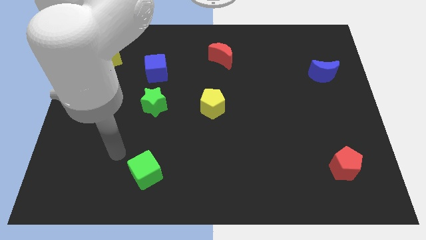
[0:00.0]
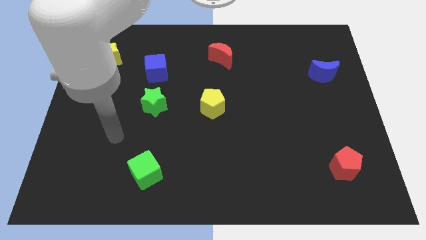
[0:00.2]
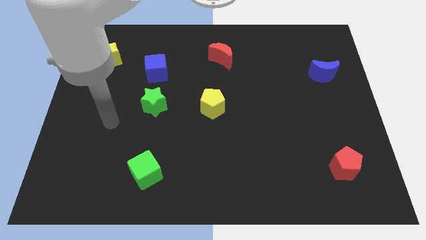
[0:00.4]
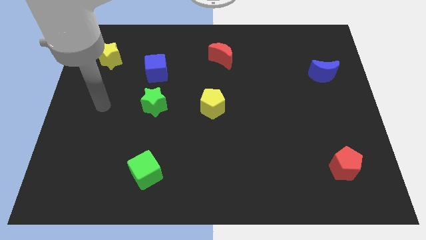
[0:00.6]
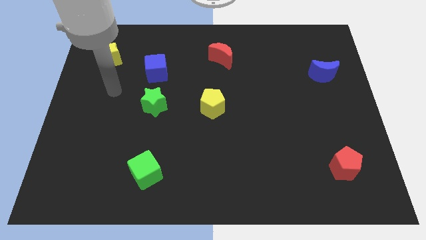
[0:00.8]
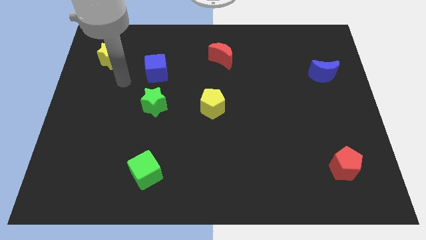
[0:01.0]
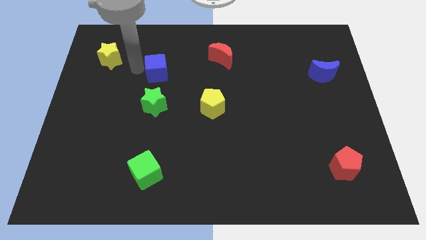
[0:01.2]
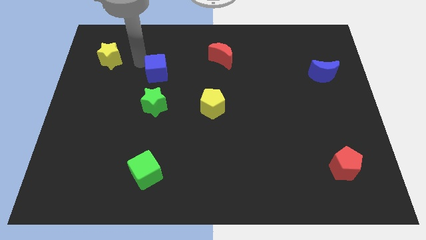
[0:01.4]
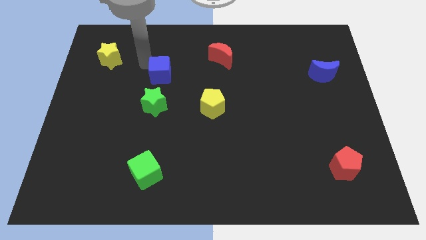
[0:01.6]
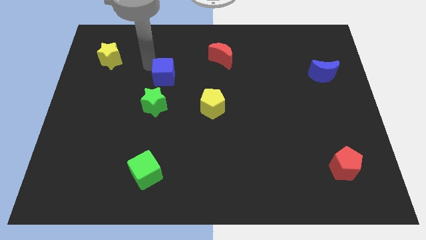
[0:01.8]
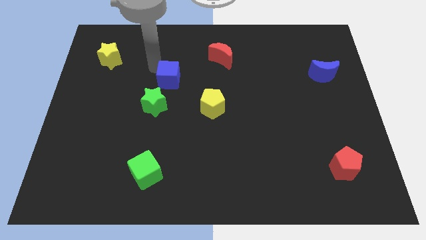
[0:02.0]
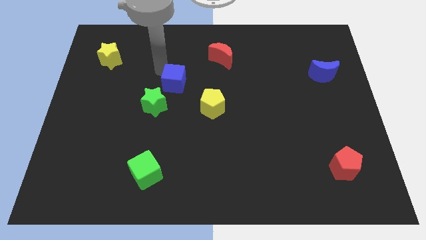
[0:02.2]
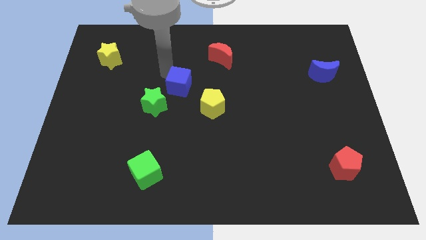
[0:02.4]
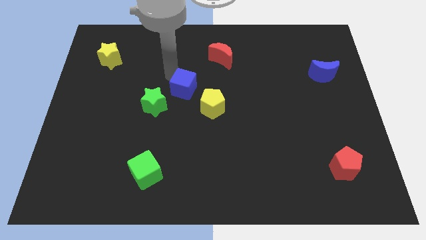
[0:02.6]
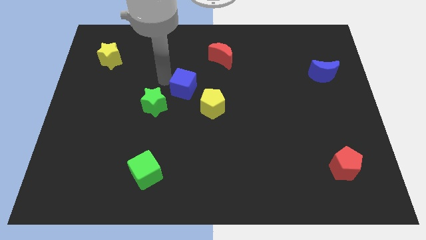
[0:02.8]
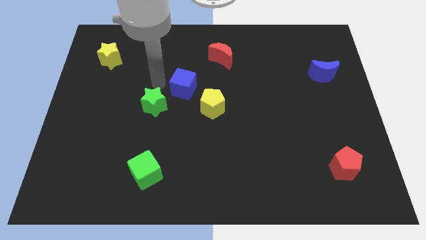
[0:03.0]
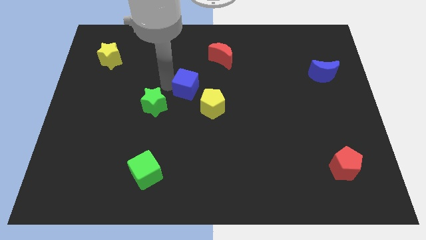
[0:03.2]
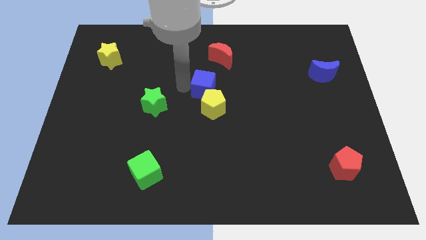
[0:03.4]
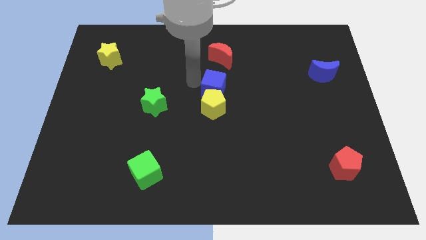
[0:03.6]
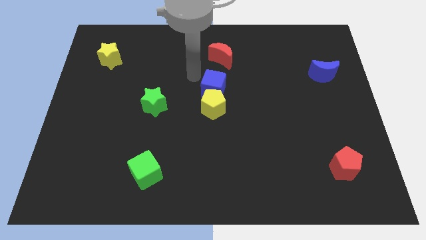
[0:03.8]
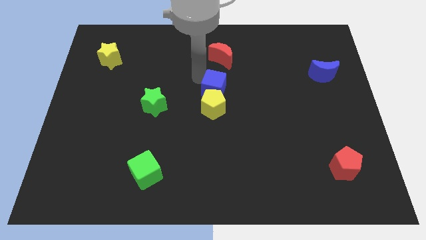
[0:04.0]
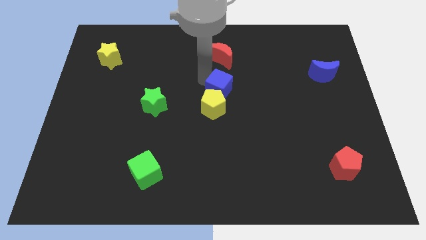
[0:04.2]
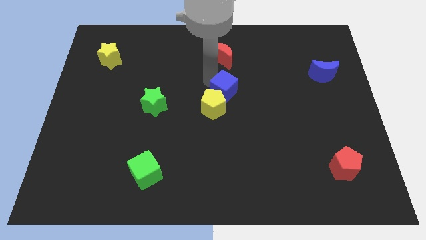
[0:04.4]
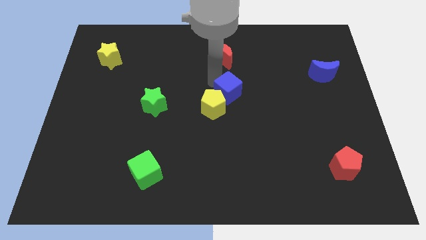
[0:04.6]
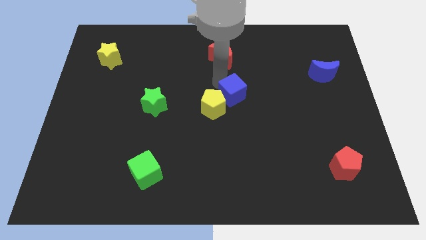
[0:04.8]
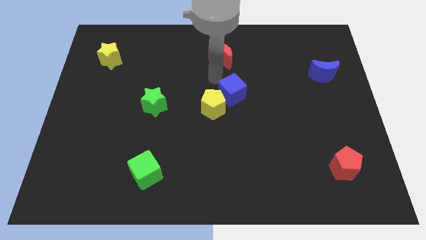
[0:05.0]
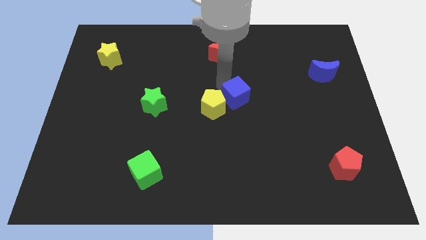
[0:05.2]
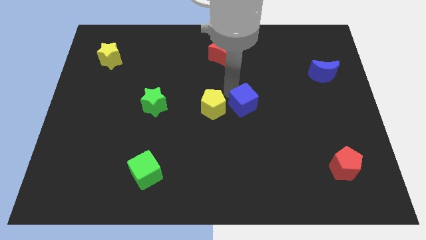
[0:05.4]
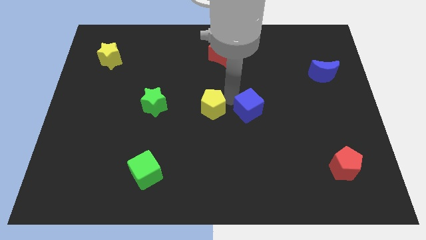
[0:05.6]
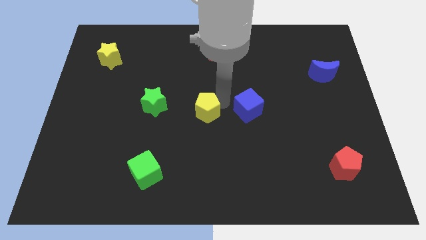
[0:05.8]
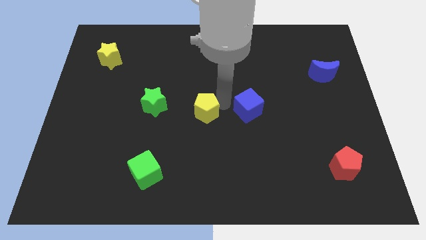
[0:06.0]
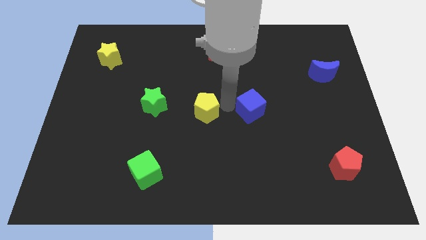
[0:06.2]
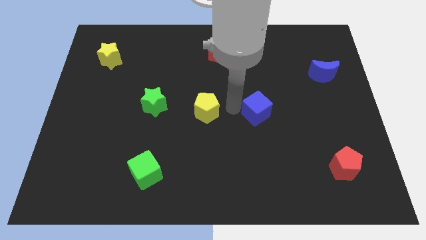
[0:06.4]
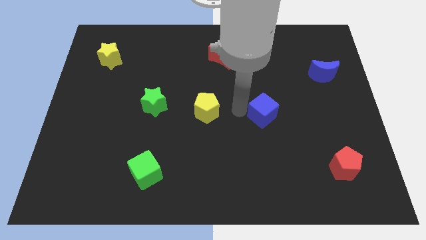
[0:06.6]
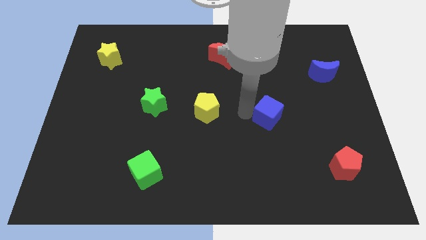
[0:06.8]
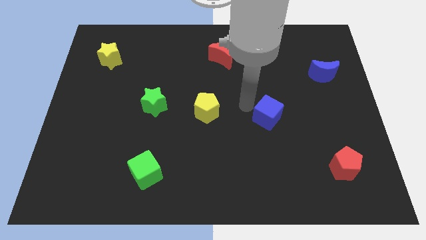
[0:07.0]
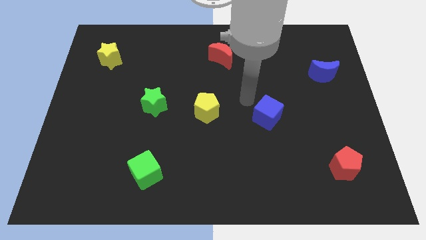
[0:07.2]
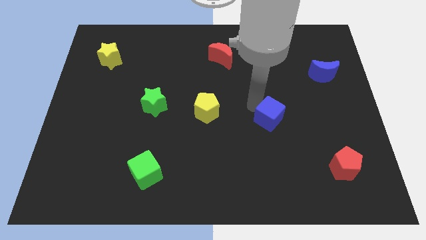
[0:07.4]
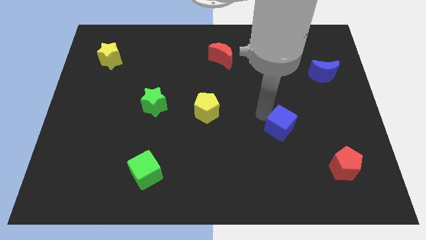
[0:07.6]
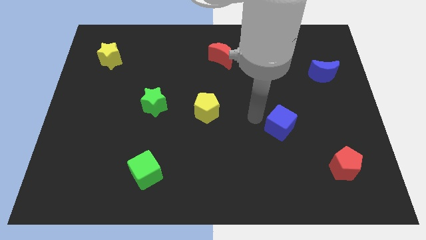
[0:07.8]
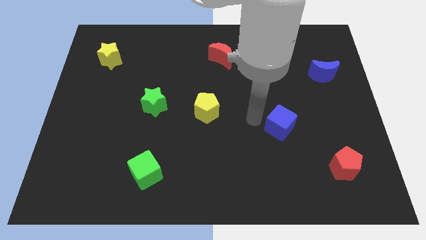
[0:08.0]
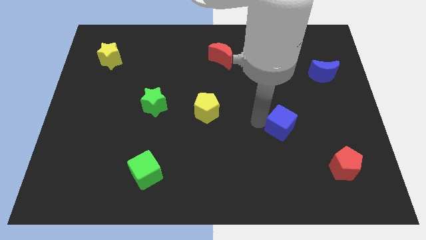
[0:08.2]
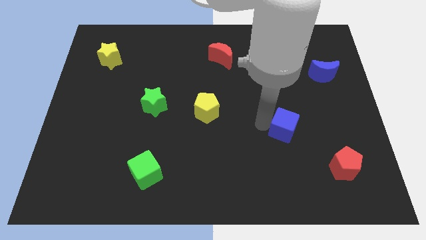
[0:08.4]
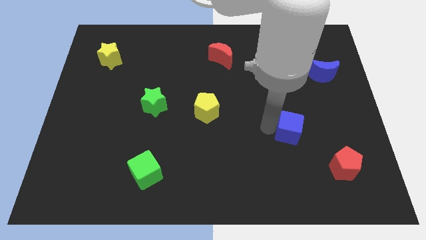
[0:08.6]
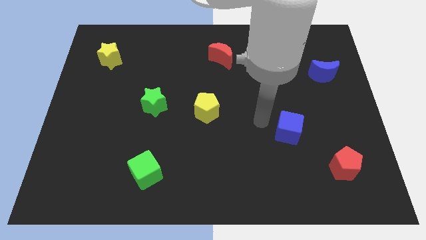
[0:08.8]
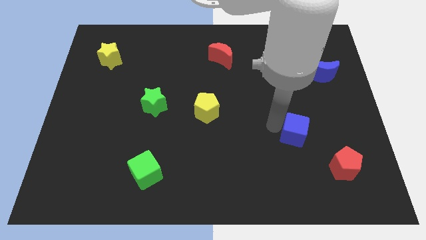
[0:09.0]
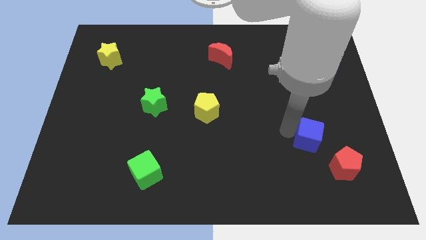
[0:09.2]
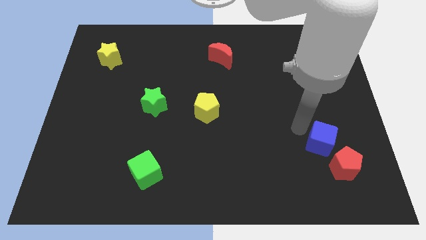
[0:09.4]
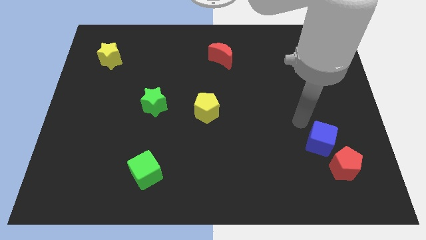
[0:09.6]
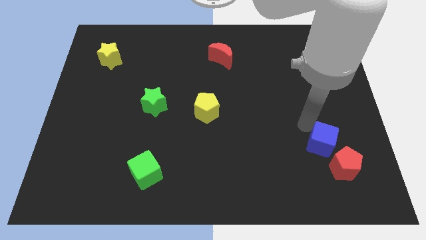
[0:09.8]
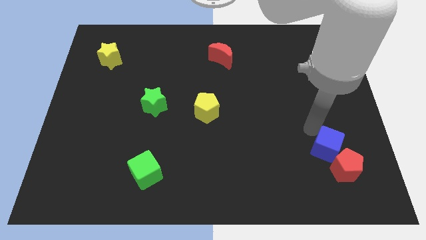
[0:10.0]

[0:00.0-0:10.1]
move the blue cube next to the red pentagon

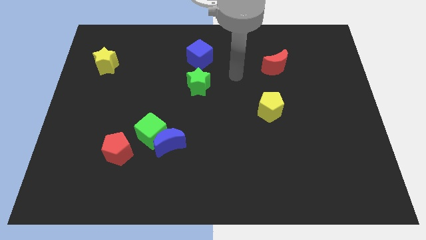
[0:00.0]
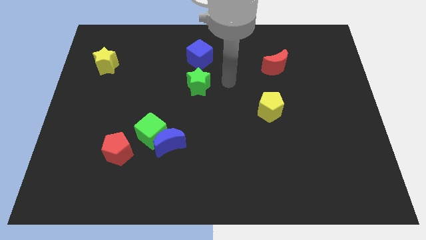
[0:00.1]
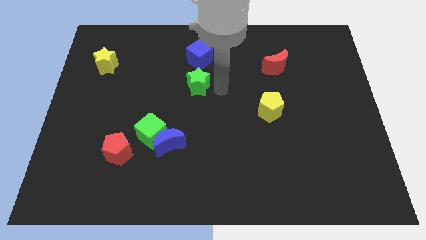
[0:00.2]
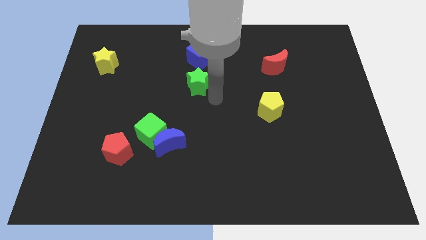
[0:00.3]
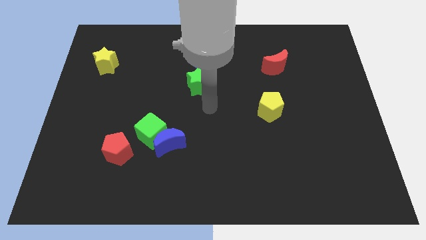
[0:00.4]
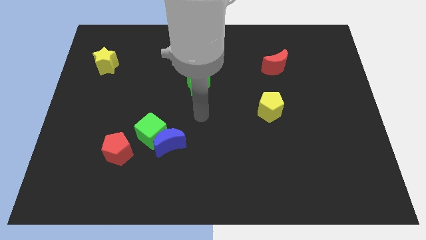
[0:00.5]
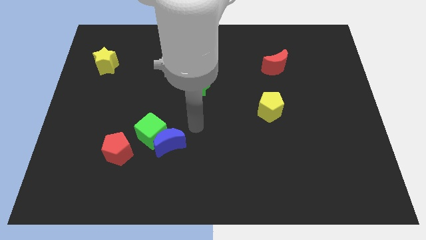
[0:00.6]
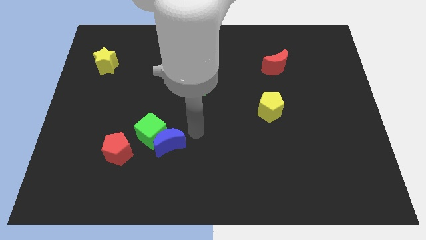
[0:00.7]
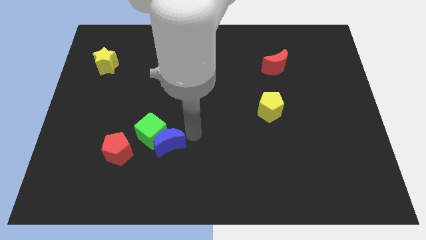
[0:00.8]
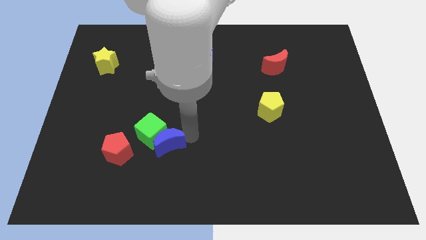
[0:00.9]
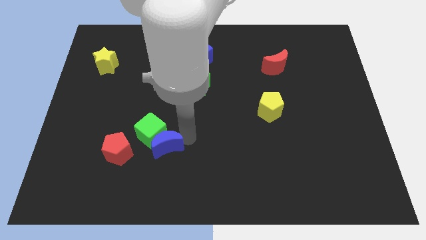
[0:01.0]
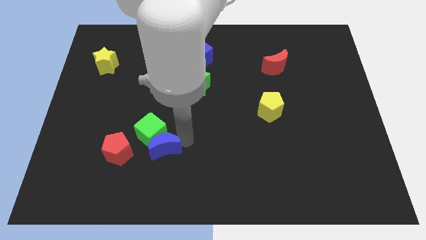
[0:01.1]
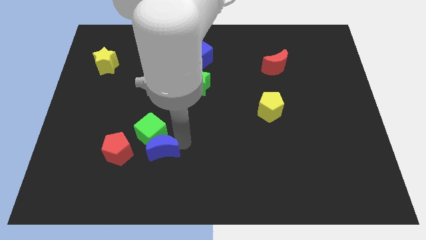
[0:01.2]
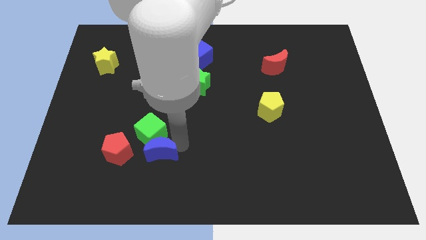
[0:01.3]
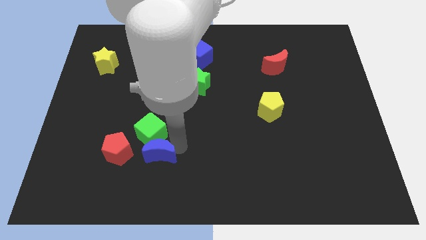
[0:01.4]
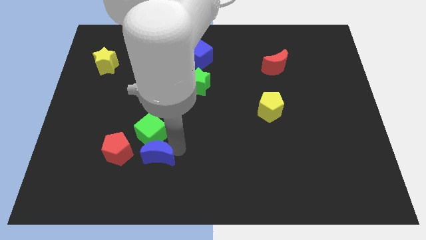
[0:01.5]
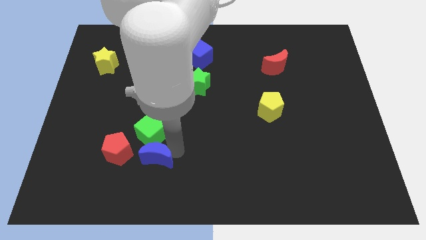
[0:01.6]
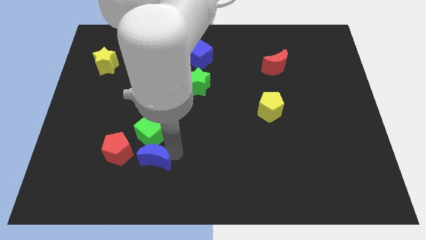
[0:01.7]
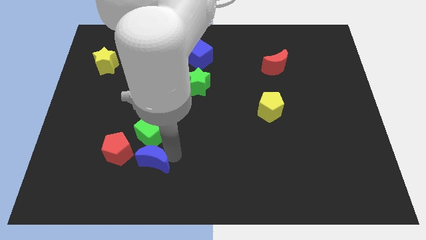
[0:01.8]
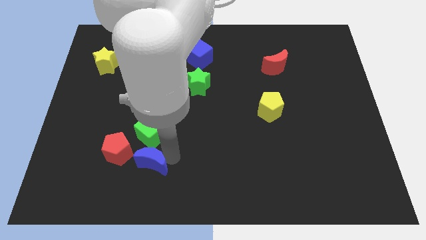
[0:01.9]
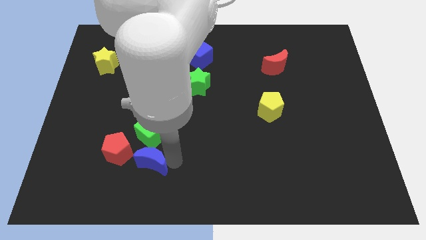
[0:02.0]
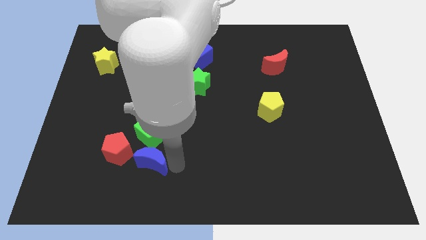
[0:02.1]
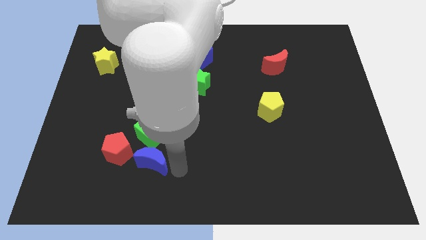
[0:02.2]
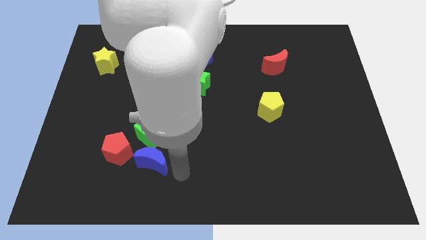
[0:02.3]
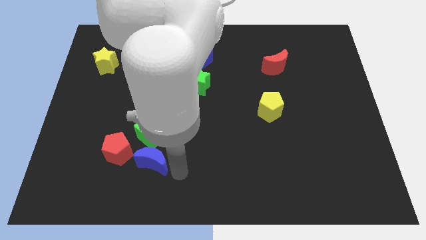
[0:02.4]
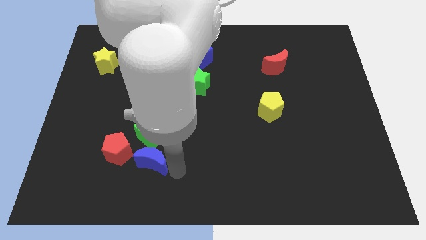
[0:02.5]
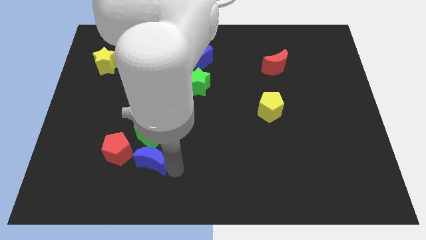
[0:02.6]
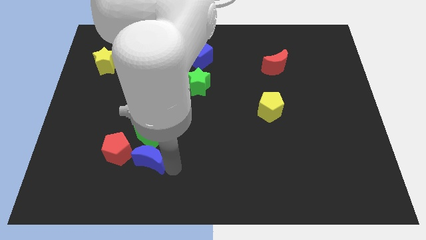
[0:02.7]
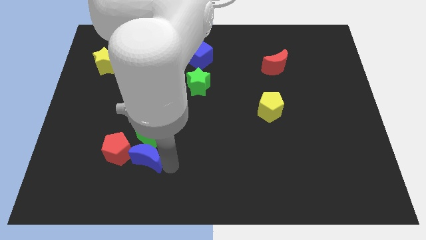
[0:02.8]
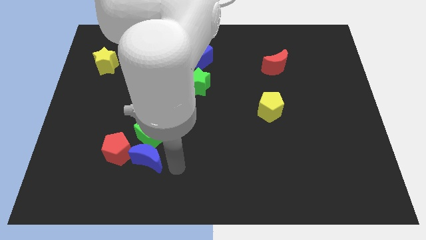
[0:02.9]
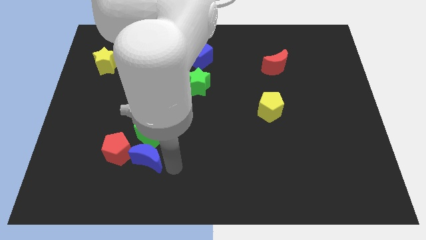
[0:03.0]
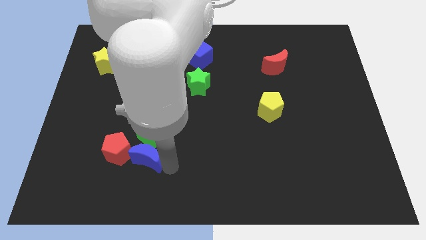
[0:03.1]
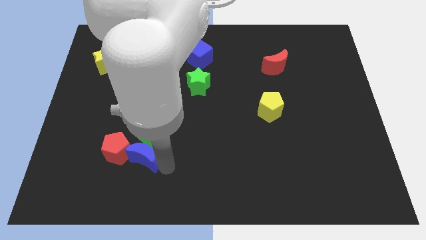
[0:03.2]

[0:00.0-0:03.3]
push the blue moon towards the red pentagon
